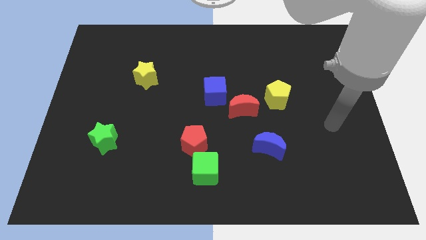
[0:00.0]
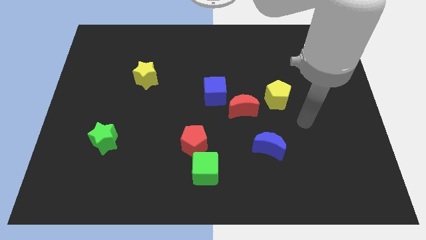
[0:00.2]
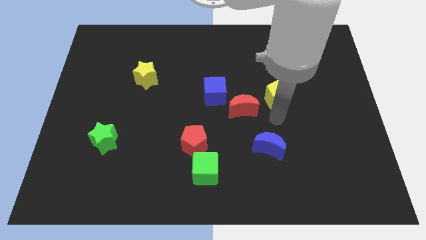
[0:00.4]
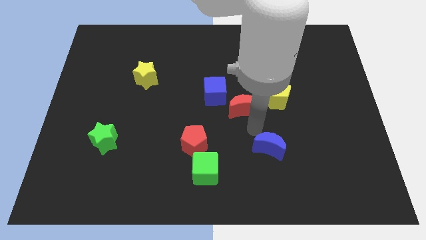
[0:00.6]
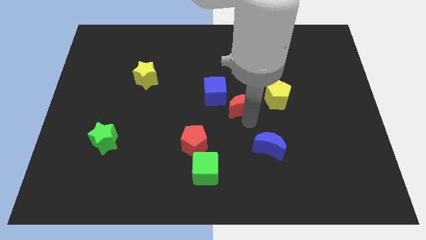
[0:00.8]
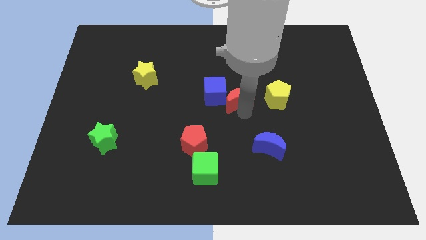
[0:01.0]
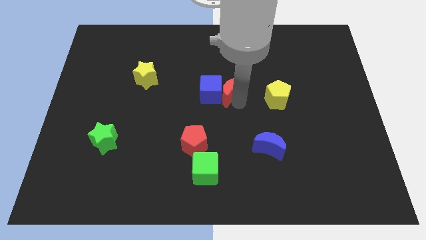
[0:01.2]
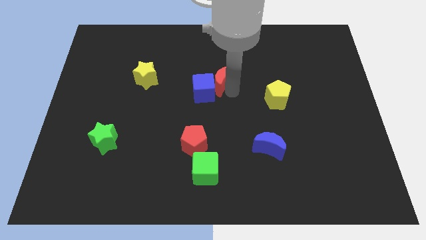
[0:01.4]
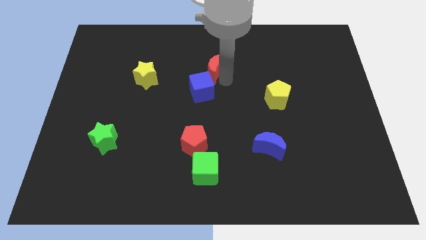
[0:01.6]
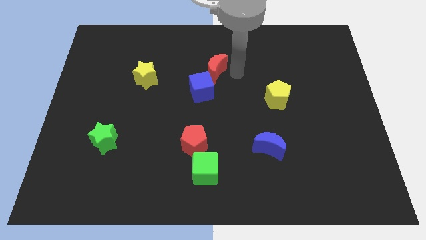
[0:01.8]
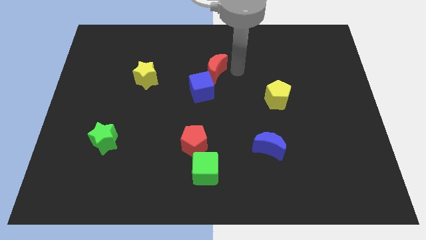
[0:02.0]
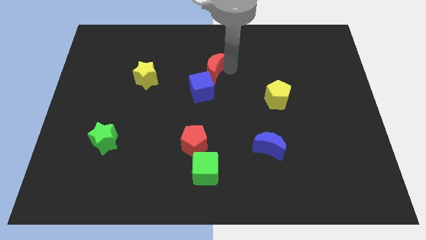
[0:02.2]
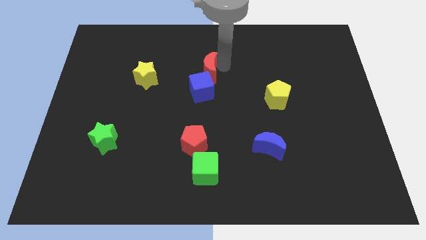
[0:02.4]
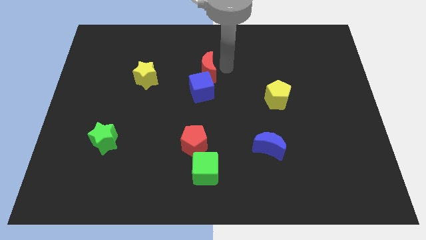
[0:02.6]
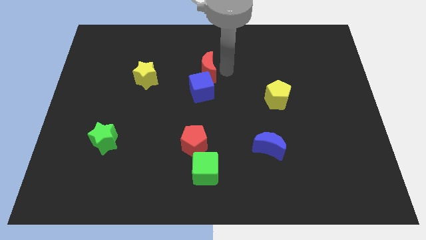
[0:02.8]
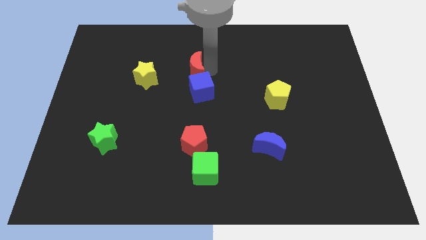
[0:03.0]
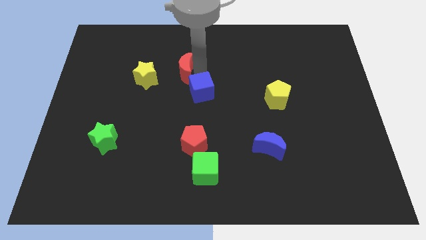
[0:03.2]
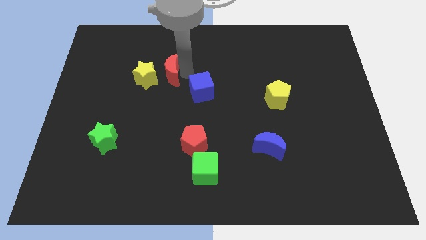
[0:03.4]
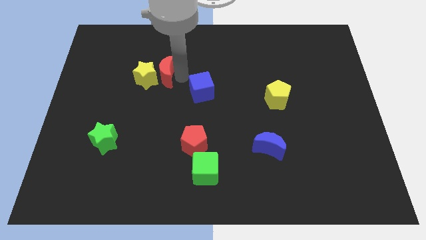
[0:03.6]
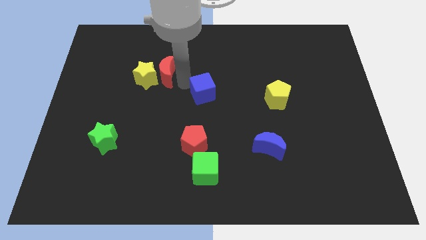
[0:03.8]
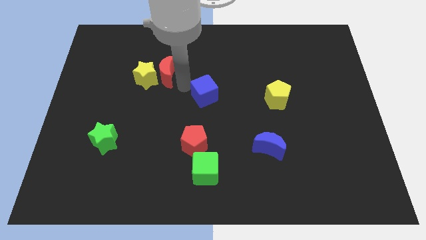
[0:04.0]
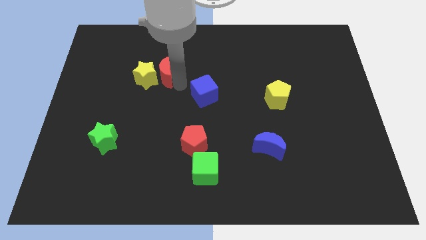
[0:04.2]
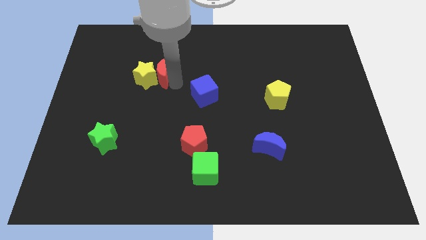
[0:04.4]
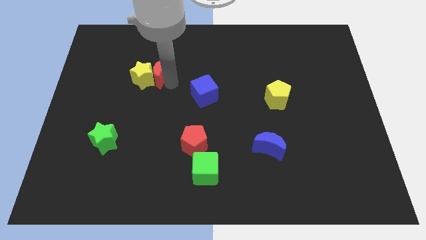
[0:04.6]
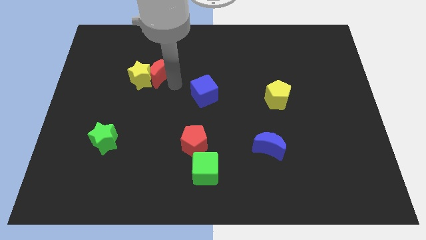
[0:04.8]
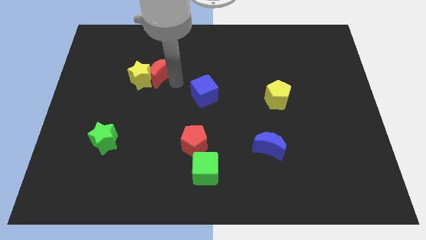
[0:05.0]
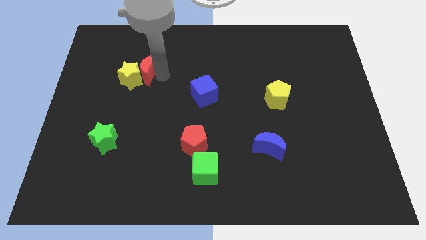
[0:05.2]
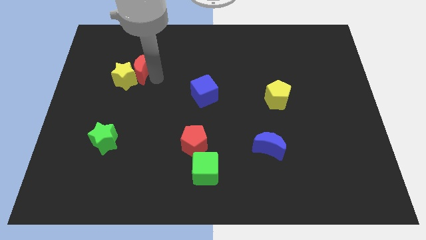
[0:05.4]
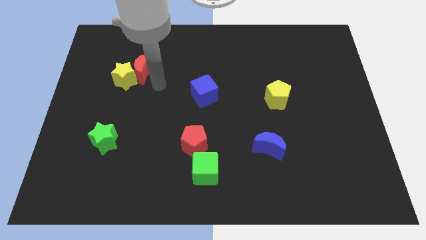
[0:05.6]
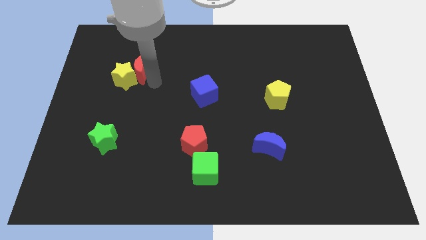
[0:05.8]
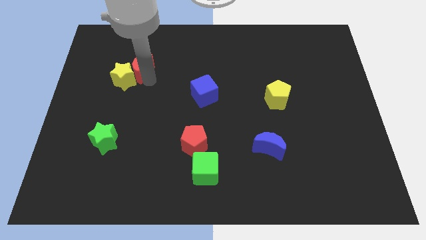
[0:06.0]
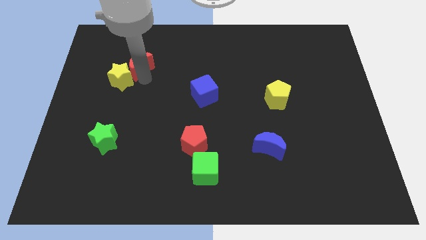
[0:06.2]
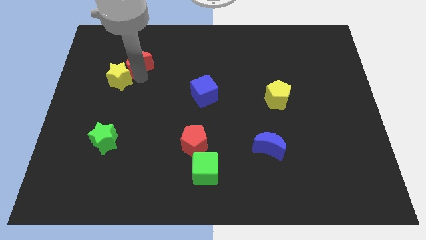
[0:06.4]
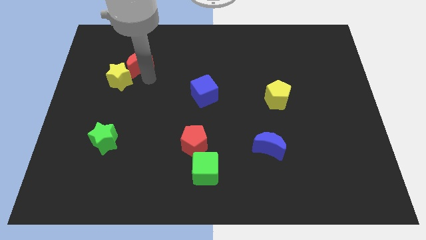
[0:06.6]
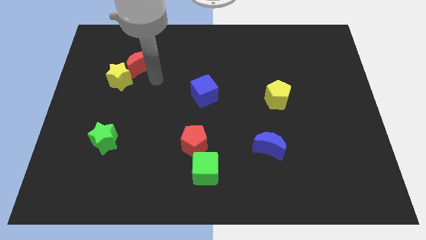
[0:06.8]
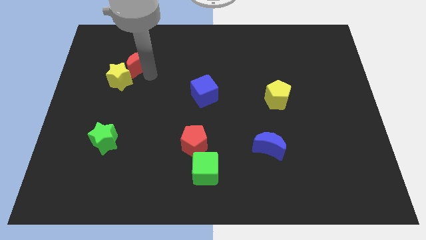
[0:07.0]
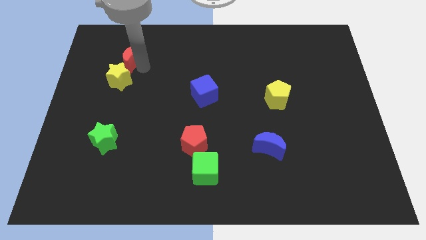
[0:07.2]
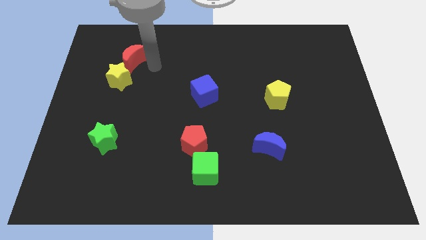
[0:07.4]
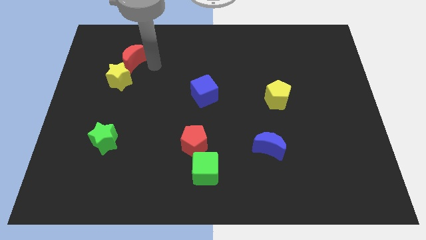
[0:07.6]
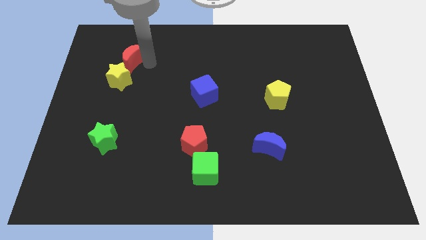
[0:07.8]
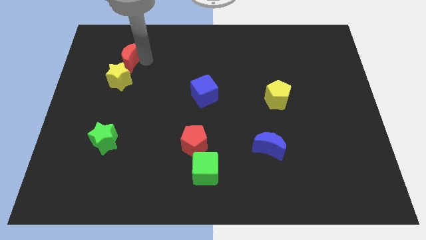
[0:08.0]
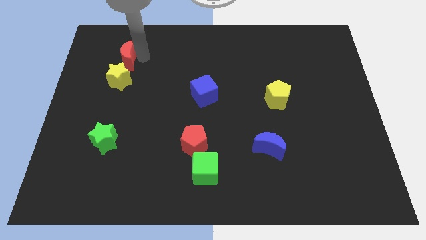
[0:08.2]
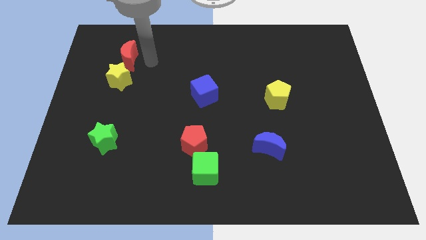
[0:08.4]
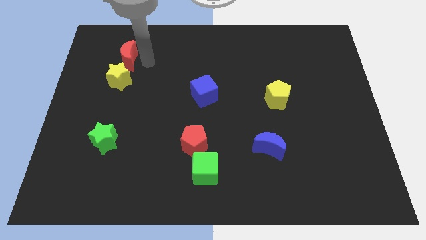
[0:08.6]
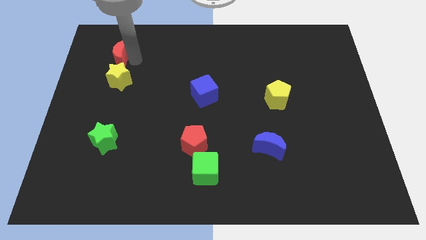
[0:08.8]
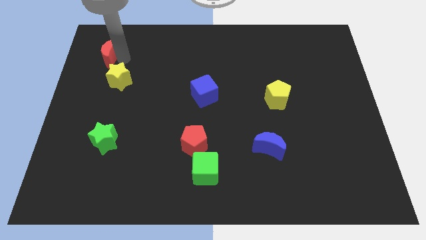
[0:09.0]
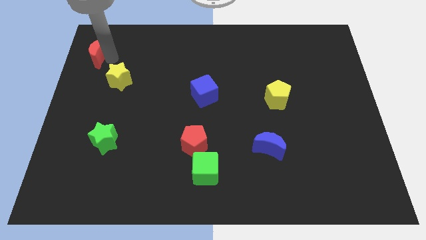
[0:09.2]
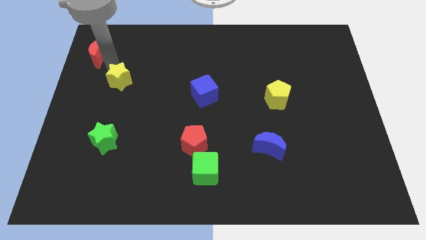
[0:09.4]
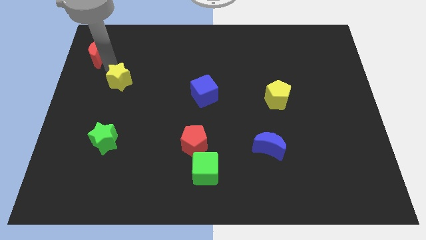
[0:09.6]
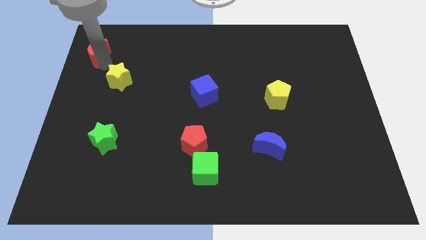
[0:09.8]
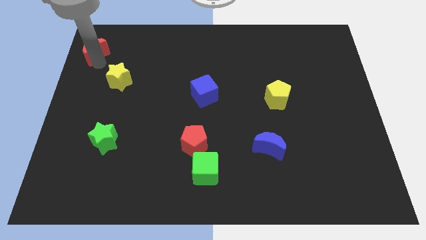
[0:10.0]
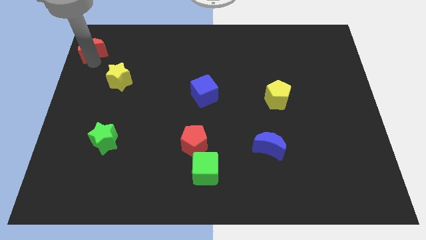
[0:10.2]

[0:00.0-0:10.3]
put the red moon to the top left corner

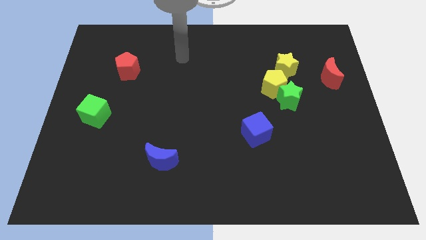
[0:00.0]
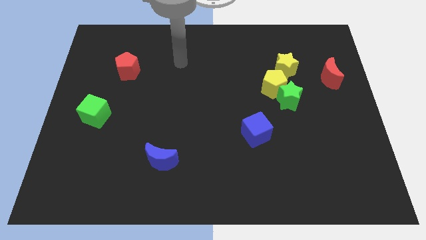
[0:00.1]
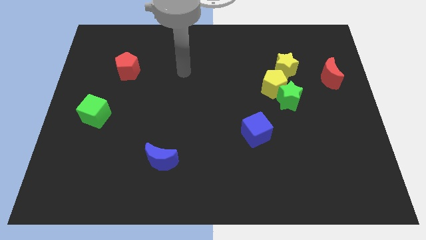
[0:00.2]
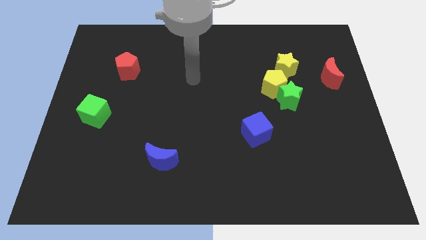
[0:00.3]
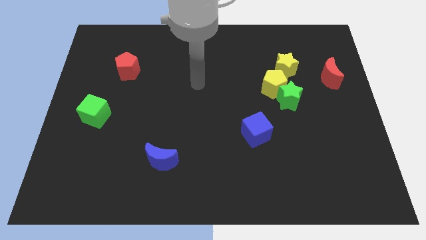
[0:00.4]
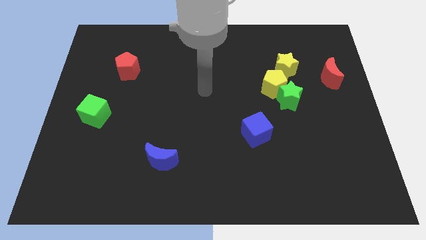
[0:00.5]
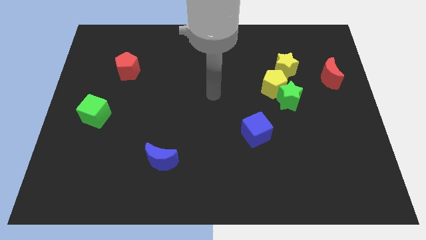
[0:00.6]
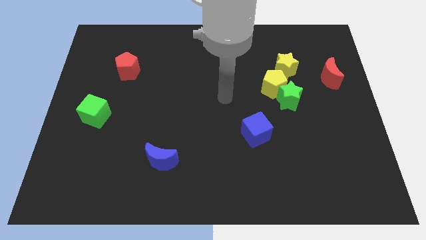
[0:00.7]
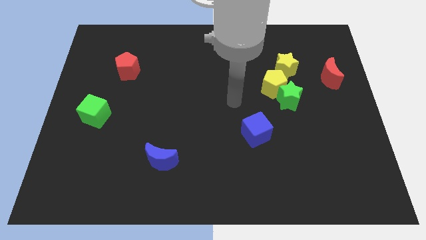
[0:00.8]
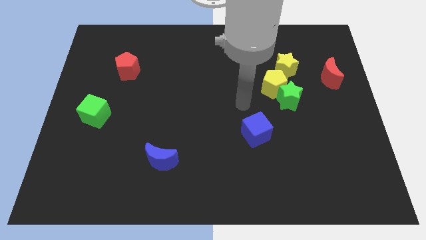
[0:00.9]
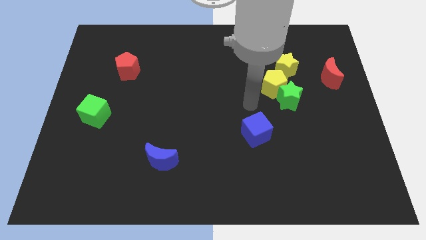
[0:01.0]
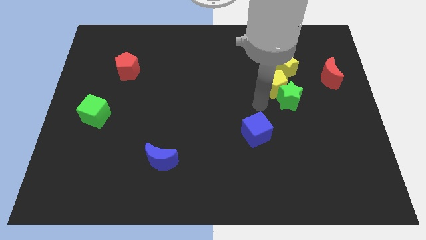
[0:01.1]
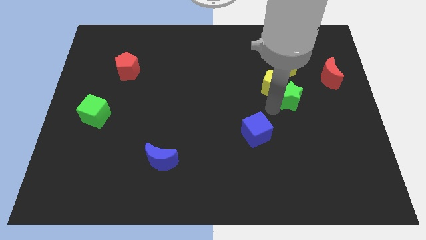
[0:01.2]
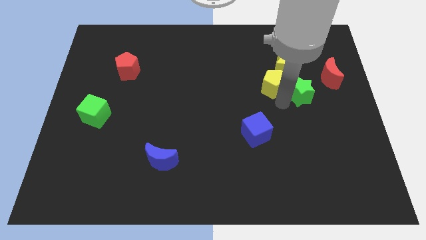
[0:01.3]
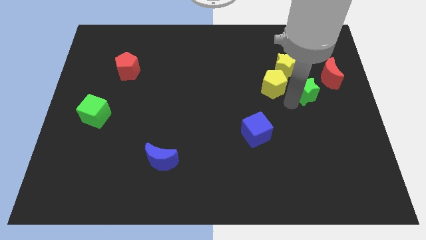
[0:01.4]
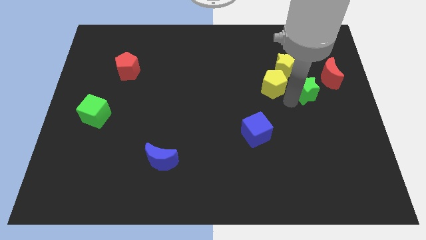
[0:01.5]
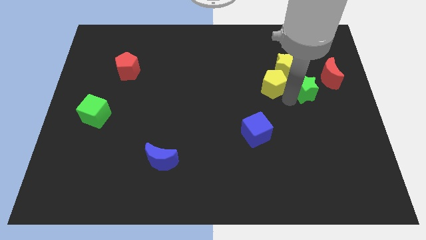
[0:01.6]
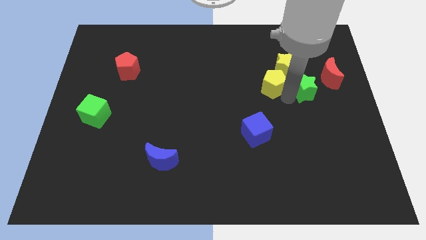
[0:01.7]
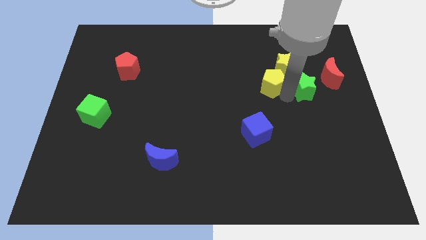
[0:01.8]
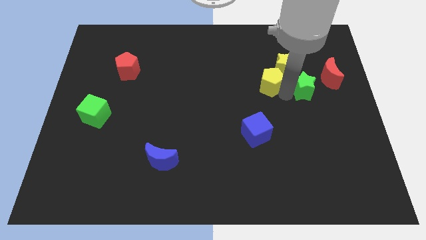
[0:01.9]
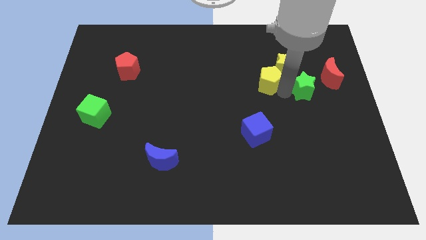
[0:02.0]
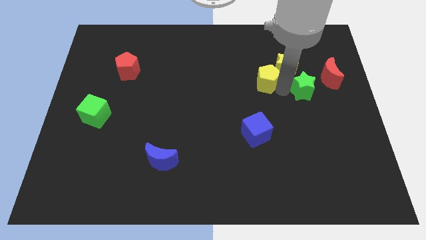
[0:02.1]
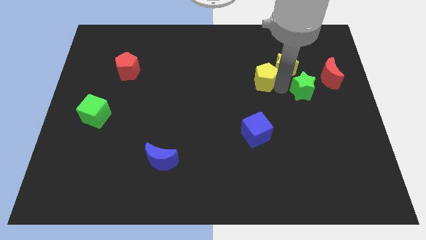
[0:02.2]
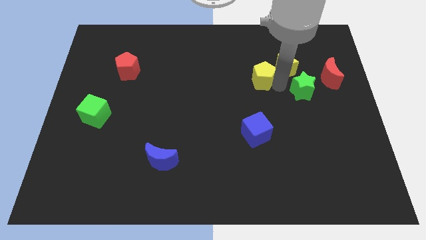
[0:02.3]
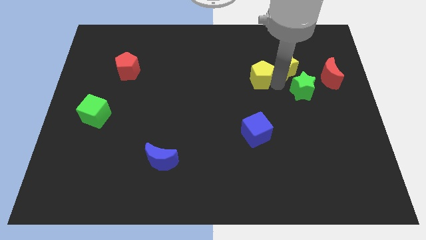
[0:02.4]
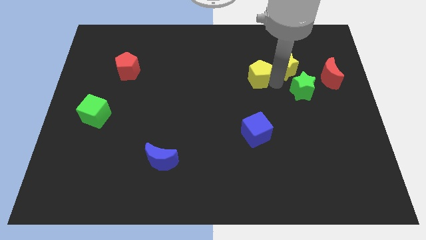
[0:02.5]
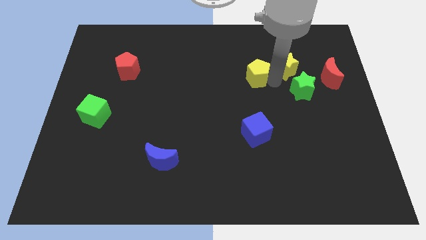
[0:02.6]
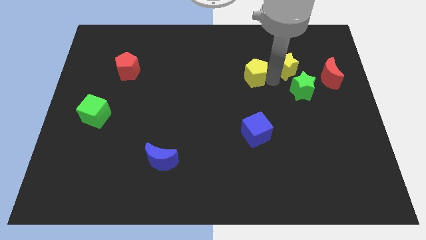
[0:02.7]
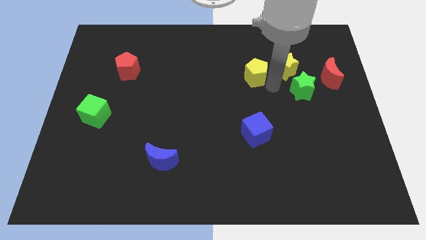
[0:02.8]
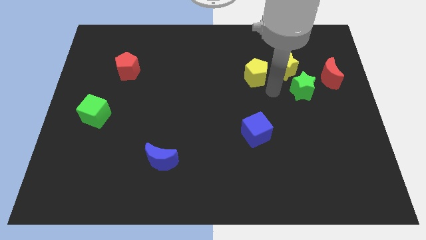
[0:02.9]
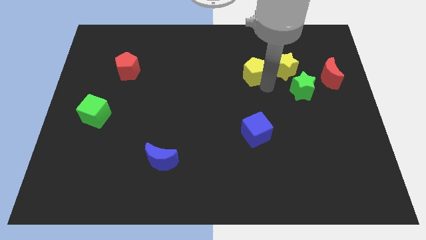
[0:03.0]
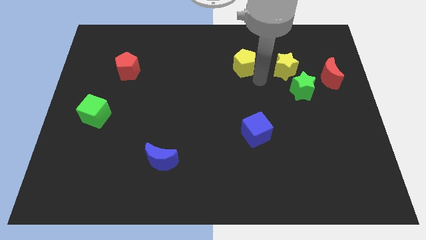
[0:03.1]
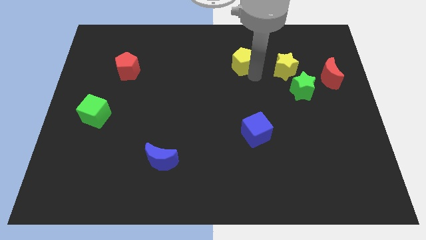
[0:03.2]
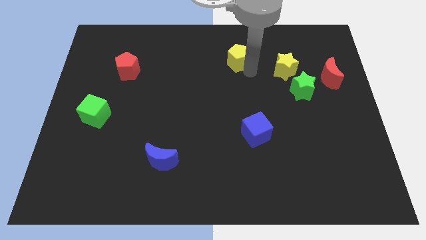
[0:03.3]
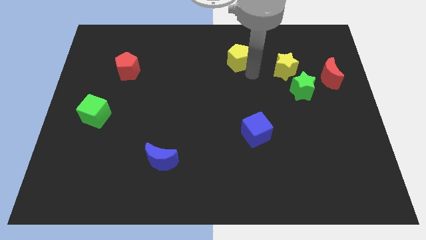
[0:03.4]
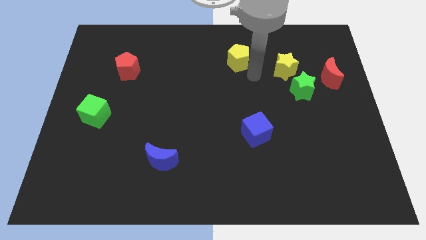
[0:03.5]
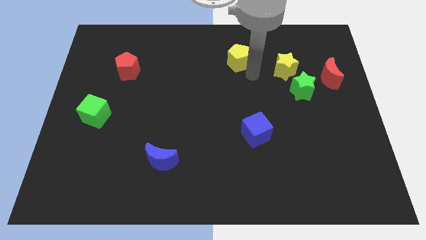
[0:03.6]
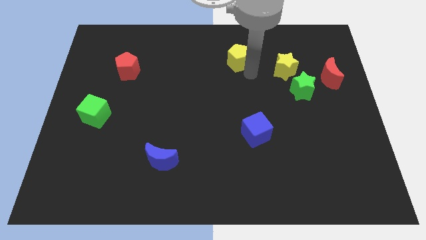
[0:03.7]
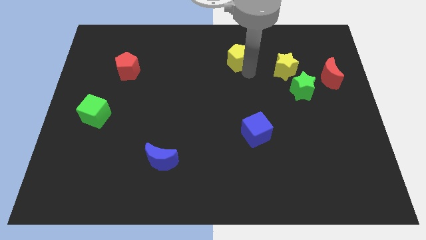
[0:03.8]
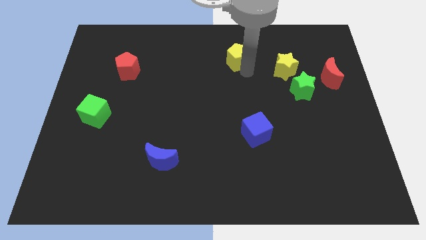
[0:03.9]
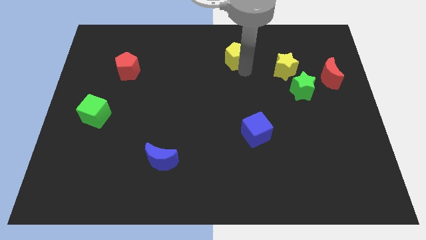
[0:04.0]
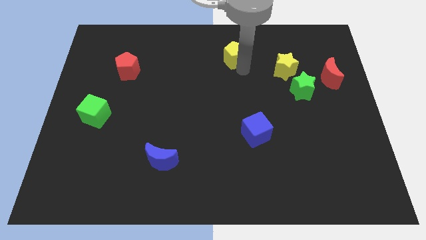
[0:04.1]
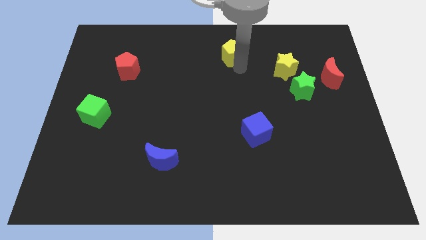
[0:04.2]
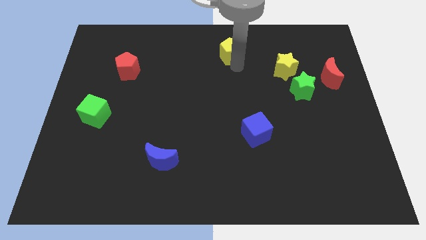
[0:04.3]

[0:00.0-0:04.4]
move the yellow pentagon to the top side
